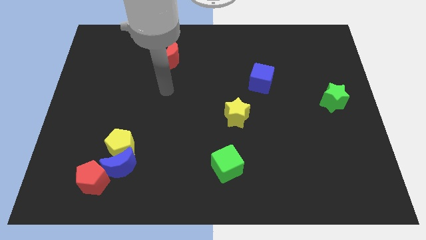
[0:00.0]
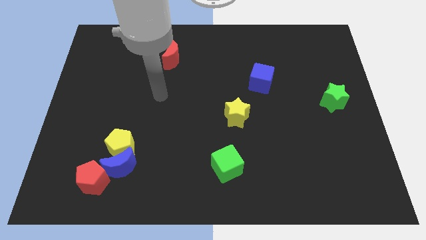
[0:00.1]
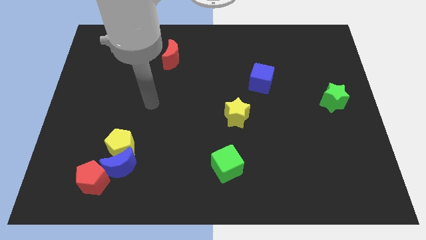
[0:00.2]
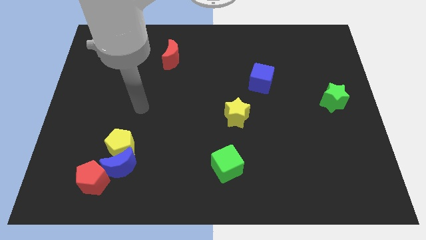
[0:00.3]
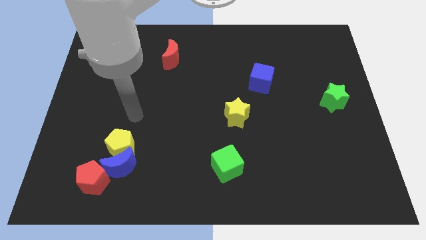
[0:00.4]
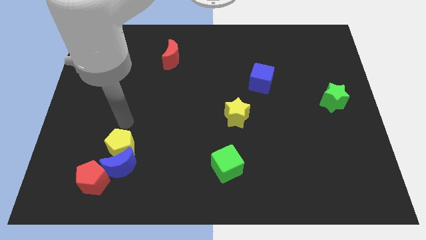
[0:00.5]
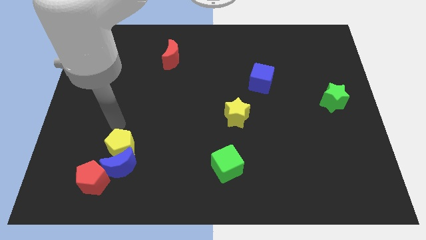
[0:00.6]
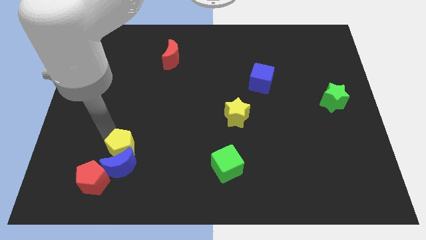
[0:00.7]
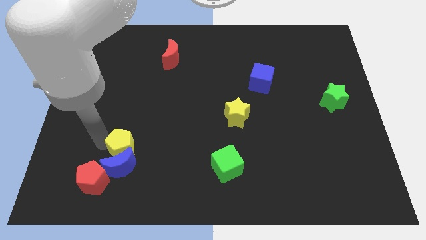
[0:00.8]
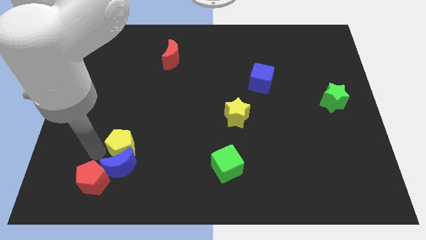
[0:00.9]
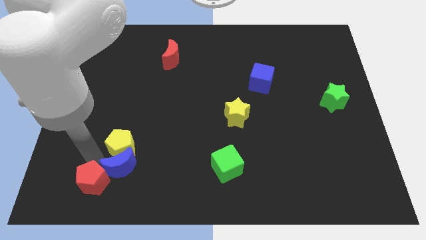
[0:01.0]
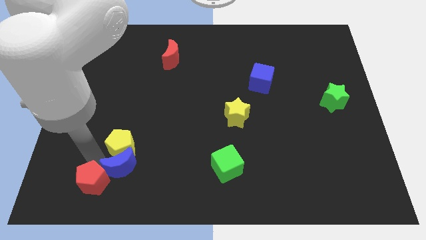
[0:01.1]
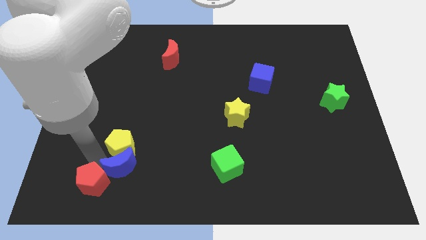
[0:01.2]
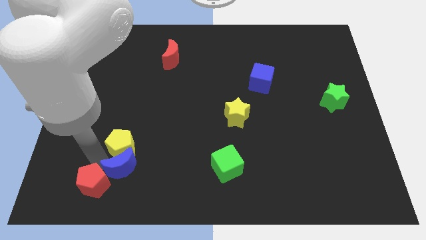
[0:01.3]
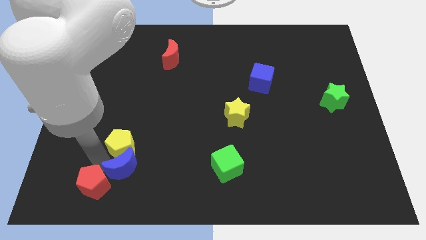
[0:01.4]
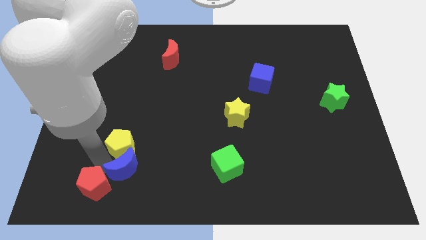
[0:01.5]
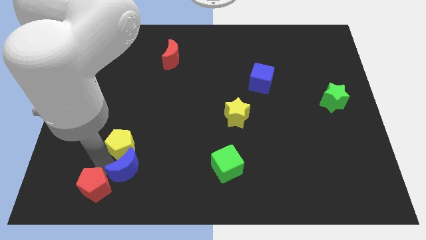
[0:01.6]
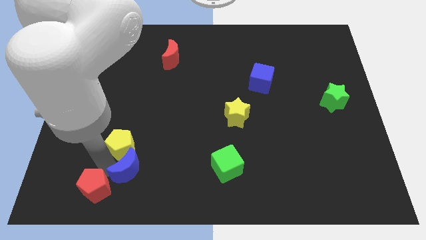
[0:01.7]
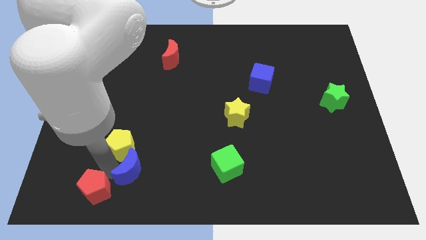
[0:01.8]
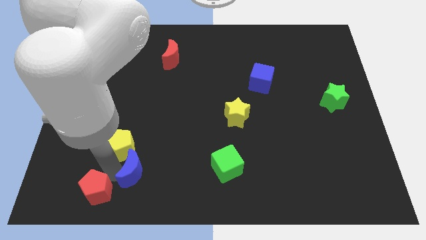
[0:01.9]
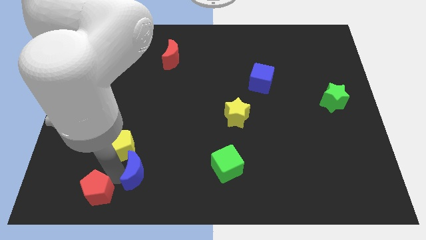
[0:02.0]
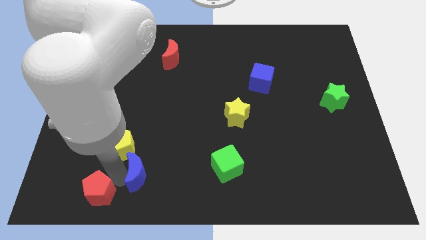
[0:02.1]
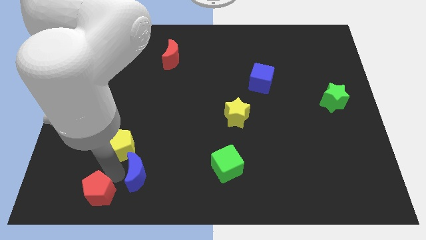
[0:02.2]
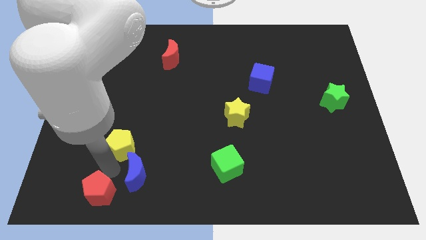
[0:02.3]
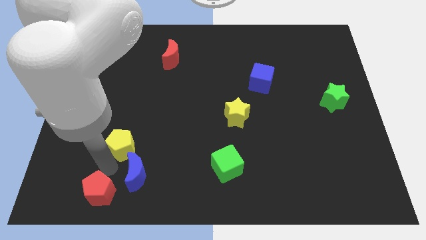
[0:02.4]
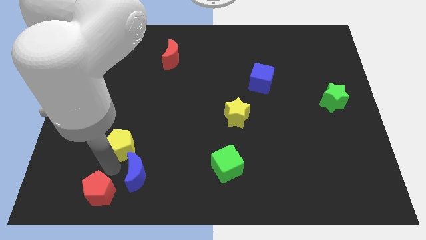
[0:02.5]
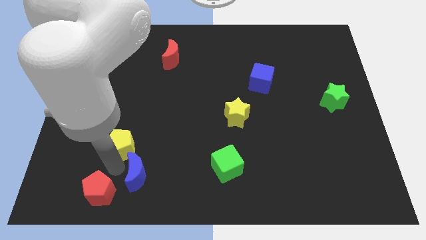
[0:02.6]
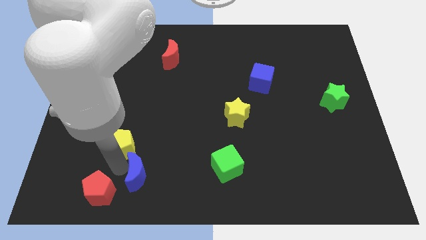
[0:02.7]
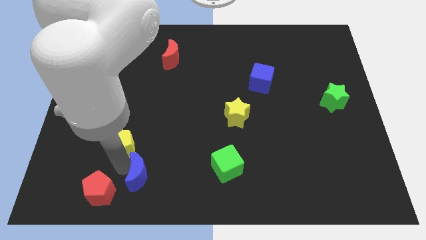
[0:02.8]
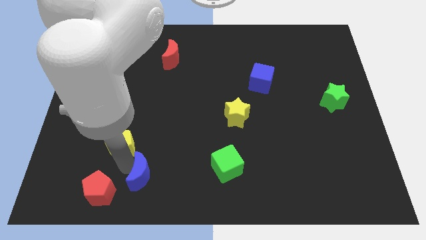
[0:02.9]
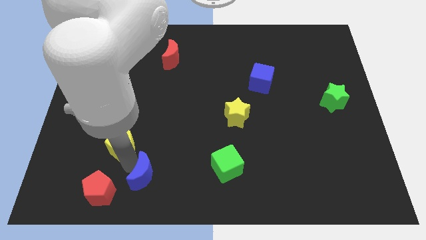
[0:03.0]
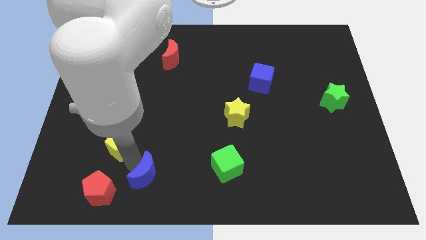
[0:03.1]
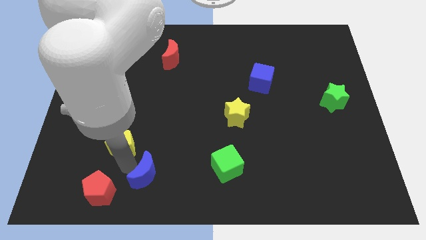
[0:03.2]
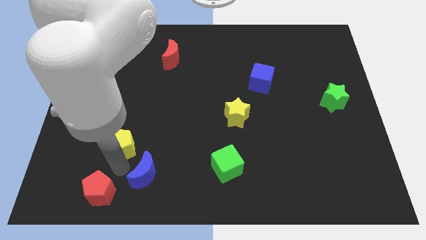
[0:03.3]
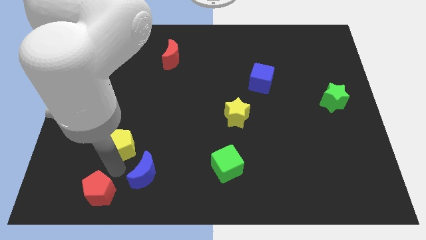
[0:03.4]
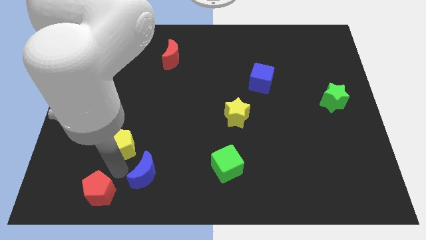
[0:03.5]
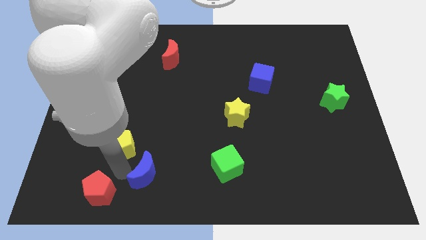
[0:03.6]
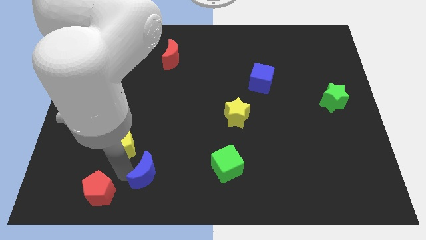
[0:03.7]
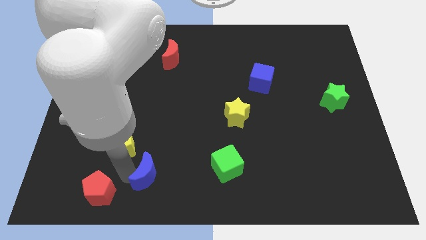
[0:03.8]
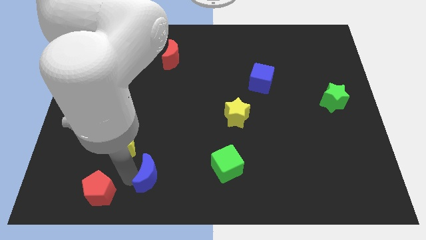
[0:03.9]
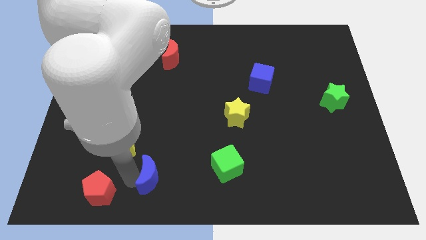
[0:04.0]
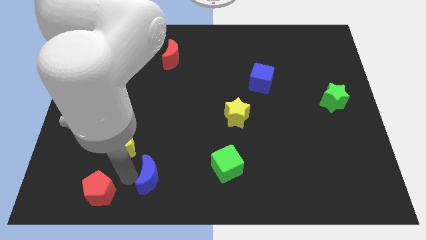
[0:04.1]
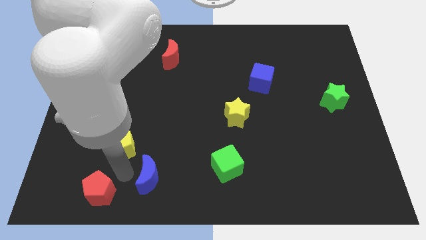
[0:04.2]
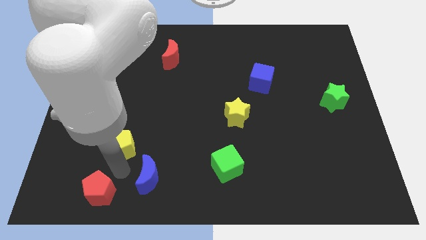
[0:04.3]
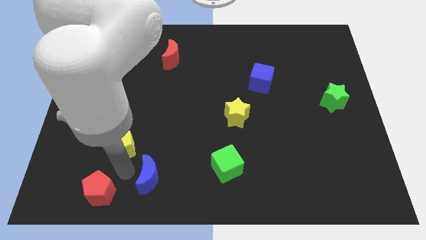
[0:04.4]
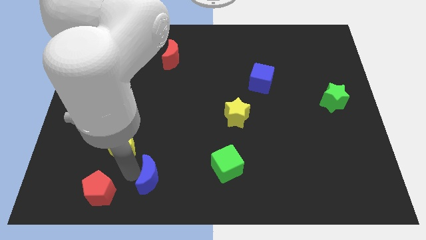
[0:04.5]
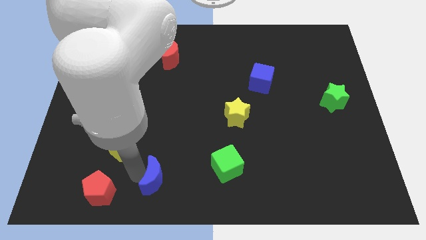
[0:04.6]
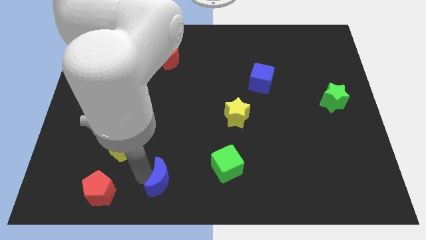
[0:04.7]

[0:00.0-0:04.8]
move the blue moon away from the yellow pentagon and red pentagon

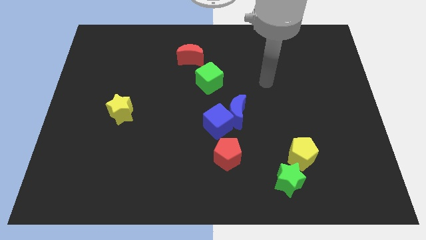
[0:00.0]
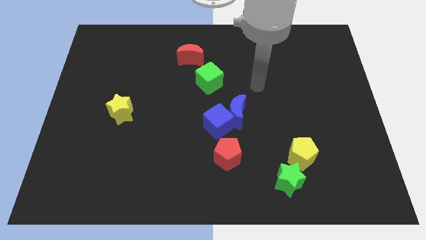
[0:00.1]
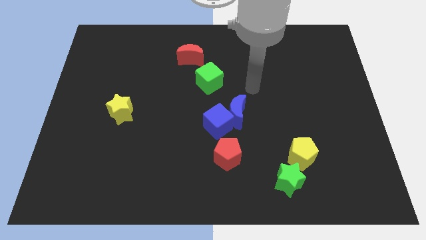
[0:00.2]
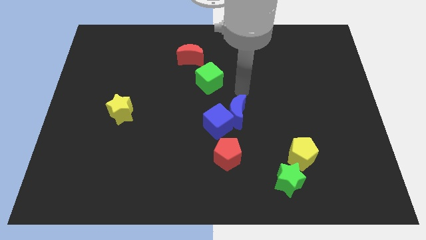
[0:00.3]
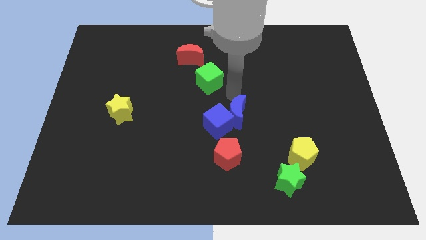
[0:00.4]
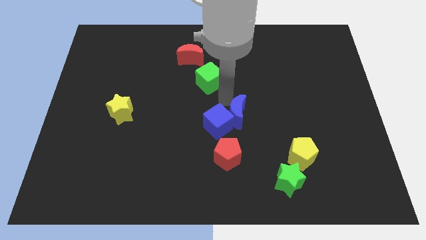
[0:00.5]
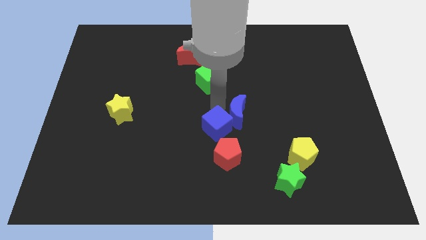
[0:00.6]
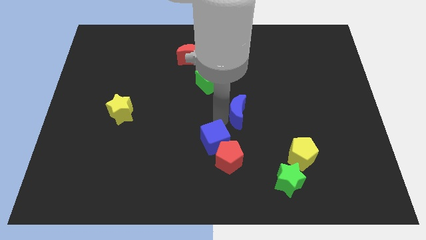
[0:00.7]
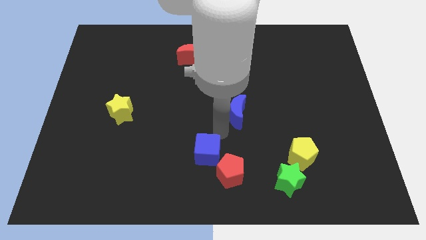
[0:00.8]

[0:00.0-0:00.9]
separate the blue moon from the blue cube

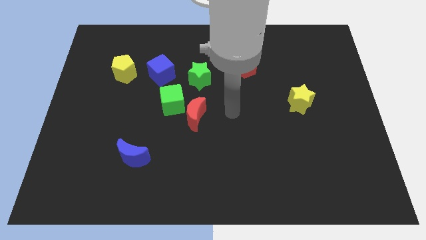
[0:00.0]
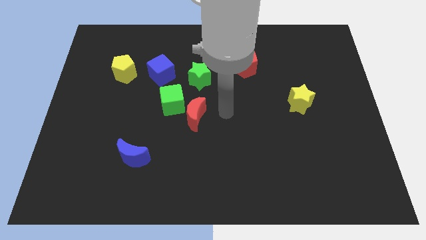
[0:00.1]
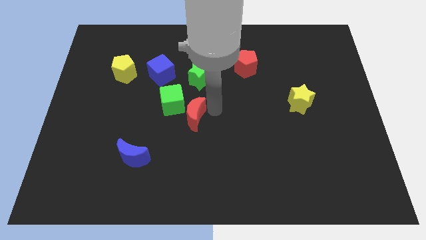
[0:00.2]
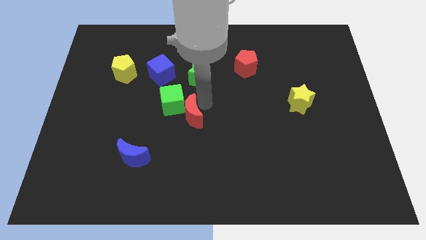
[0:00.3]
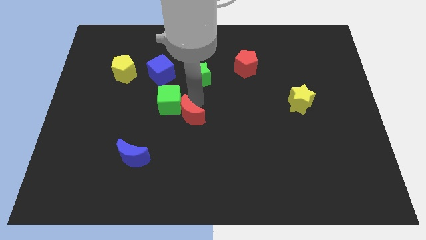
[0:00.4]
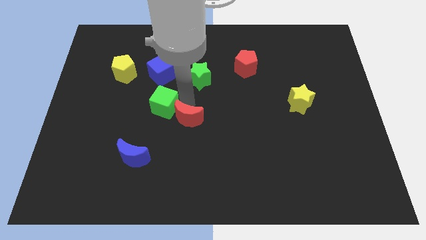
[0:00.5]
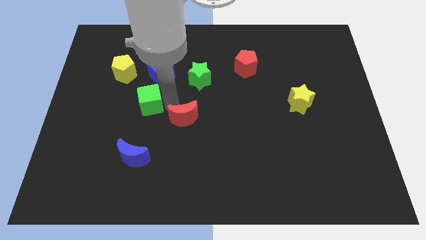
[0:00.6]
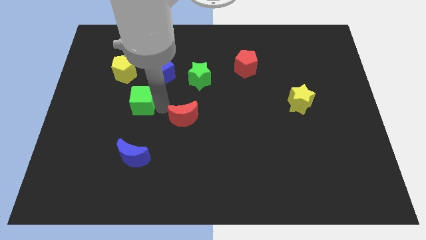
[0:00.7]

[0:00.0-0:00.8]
pull the red moon apart from the green cube

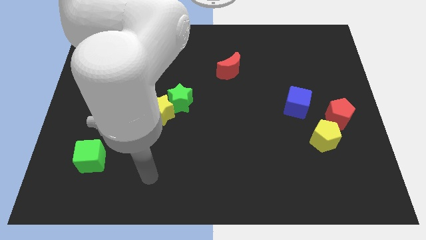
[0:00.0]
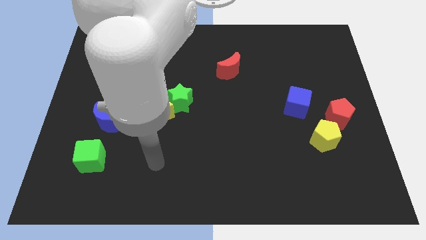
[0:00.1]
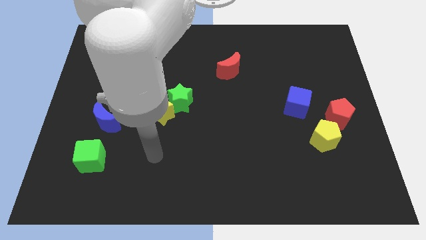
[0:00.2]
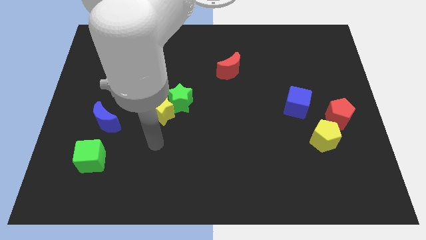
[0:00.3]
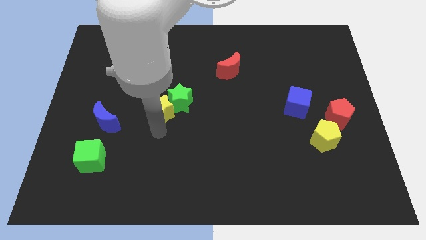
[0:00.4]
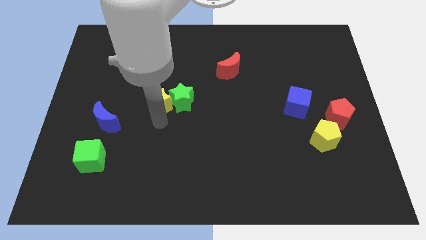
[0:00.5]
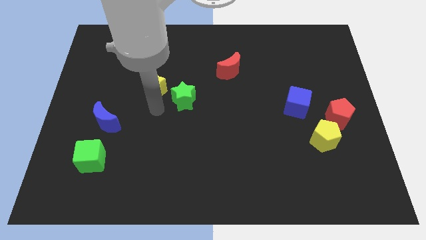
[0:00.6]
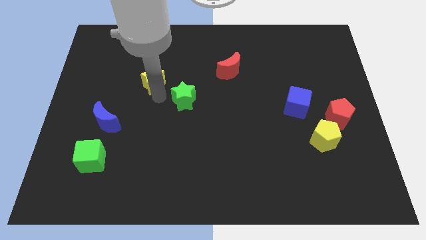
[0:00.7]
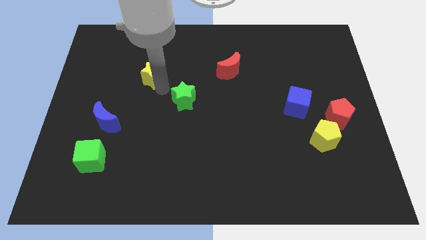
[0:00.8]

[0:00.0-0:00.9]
move the green star away from the yellow star

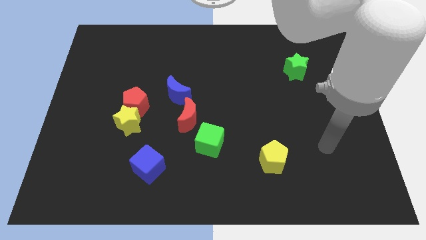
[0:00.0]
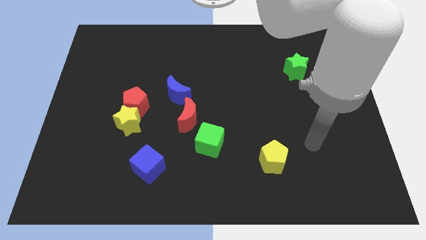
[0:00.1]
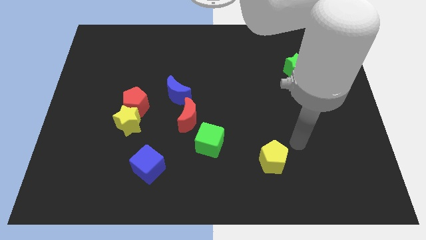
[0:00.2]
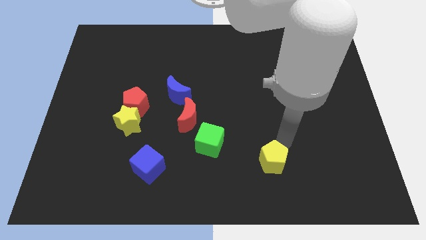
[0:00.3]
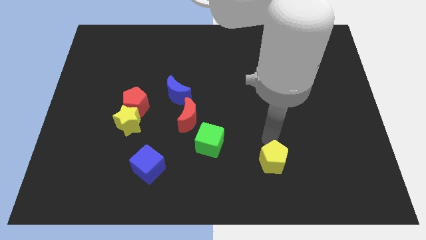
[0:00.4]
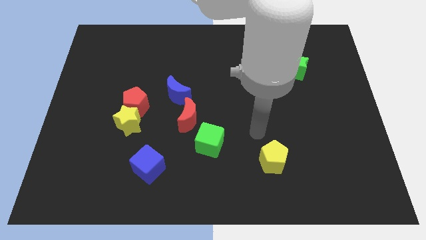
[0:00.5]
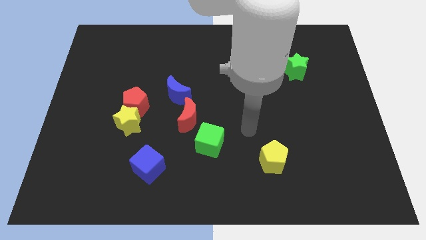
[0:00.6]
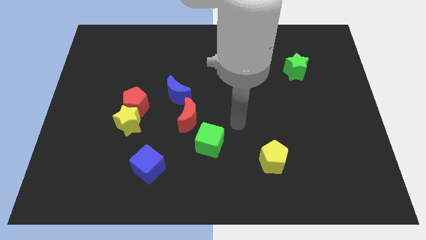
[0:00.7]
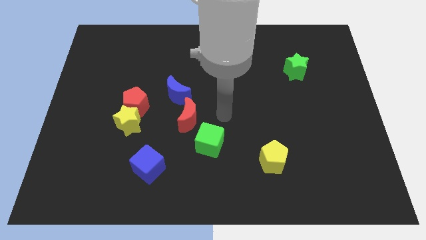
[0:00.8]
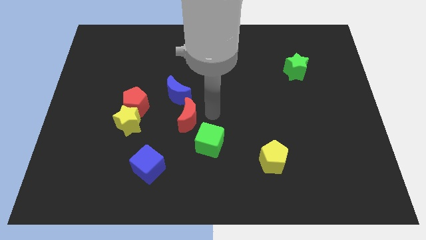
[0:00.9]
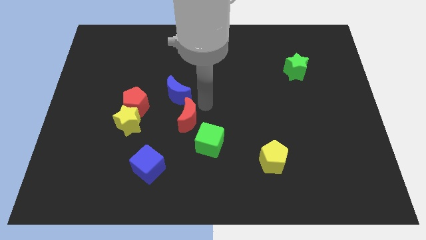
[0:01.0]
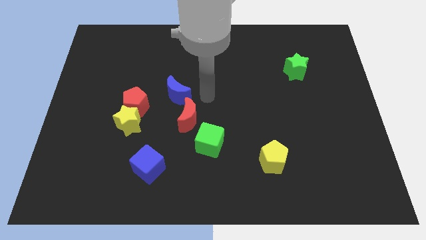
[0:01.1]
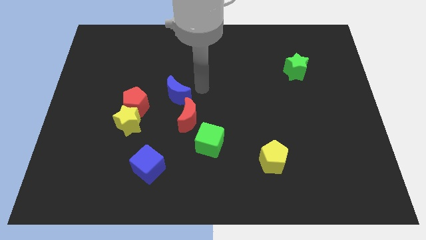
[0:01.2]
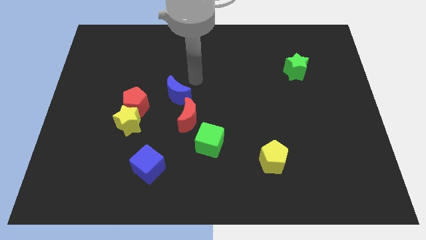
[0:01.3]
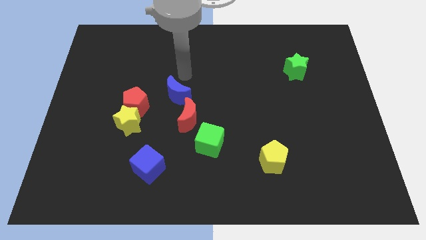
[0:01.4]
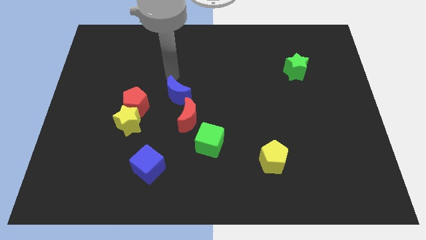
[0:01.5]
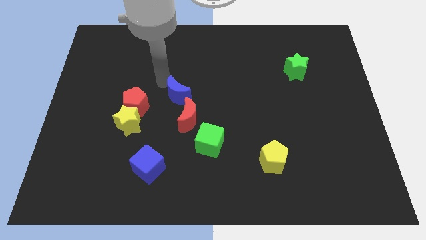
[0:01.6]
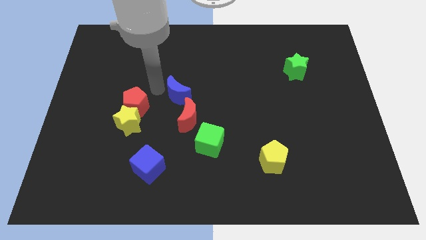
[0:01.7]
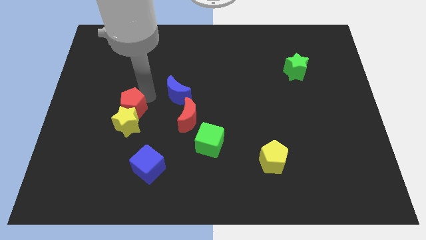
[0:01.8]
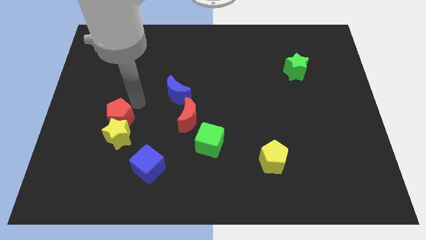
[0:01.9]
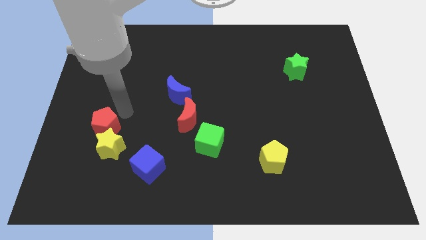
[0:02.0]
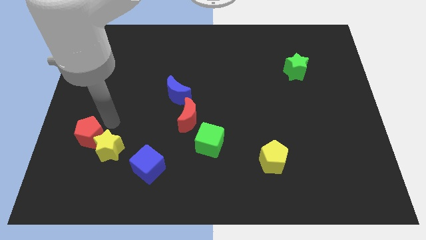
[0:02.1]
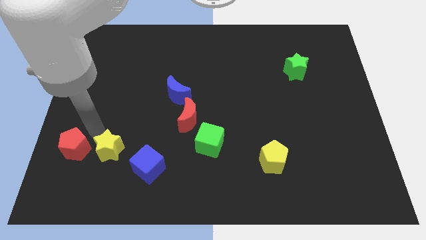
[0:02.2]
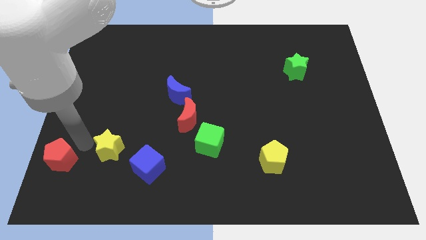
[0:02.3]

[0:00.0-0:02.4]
pull the yellow star apart from the red pentagon
